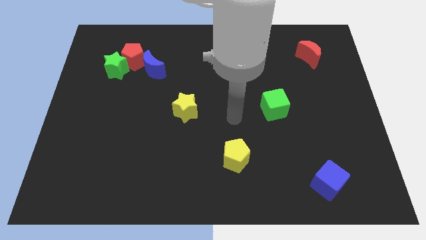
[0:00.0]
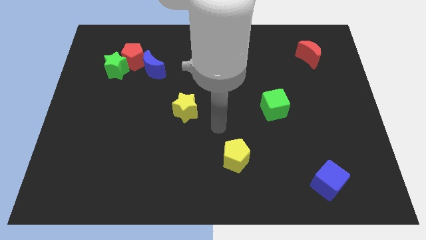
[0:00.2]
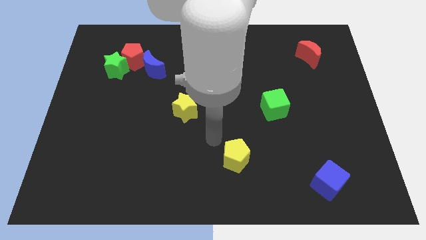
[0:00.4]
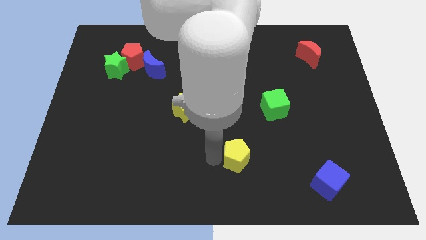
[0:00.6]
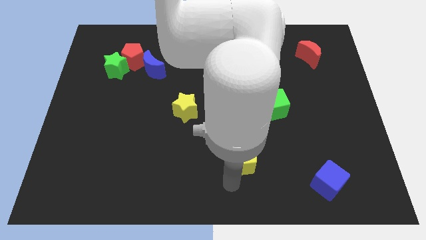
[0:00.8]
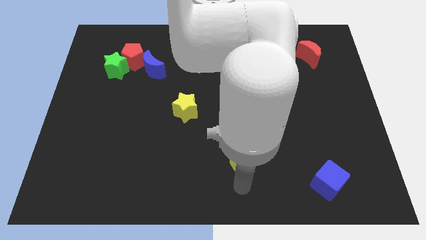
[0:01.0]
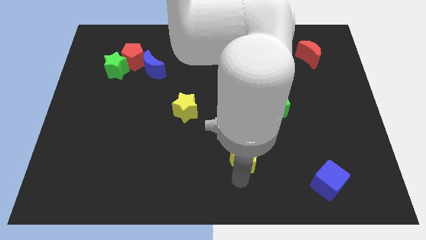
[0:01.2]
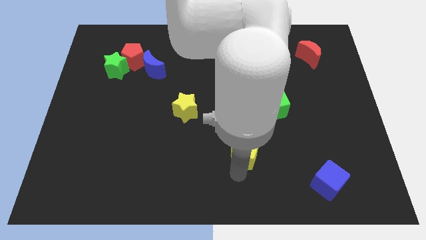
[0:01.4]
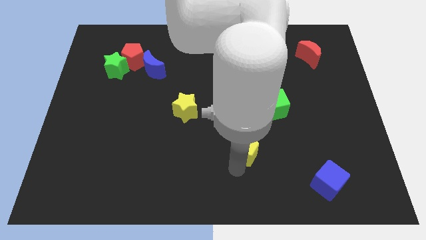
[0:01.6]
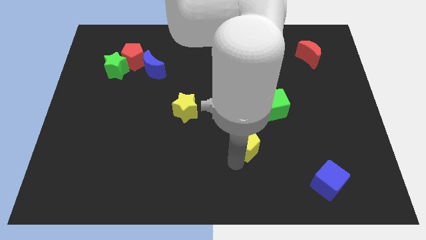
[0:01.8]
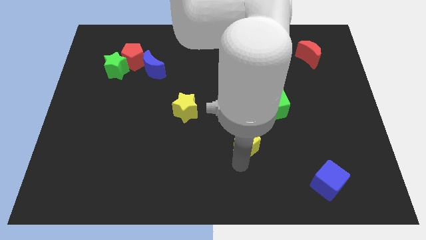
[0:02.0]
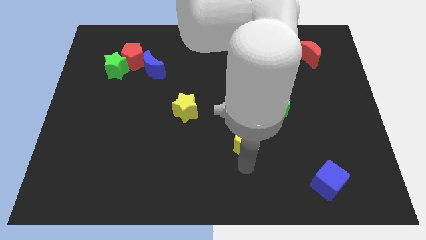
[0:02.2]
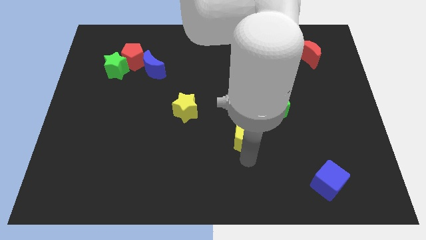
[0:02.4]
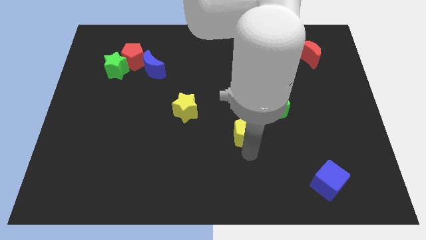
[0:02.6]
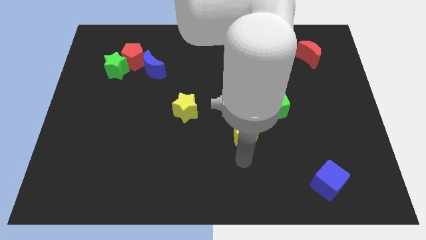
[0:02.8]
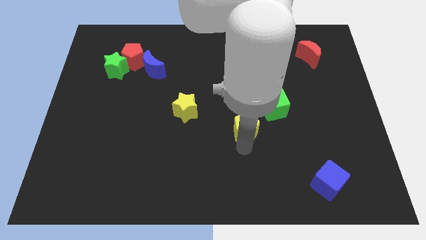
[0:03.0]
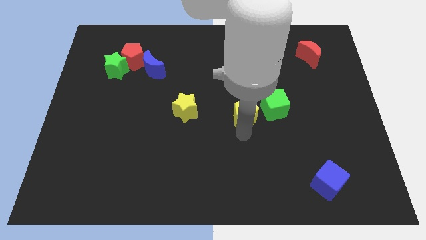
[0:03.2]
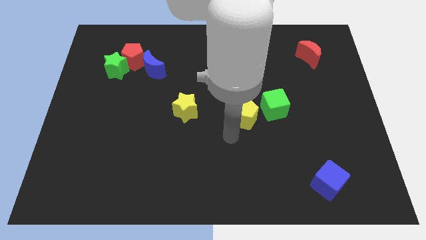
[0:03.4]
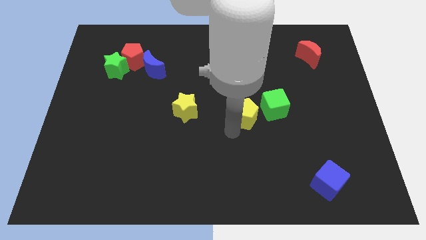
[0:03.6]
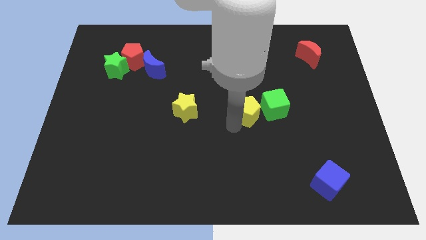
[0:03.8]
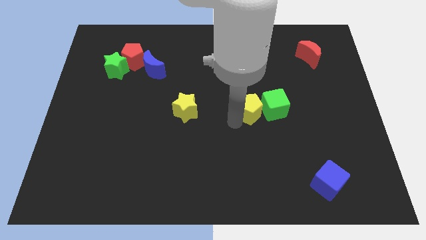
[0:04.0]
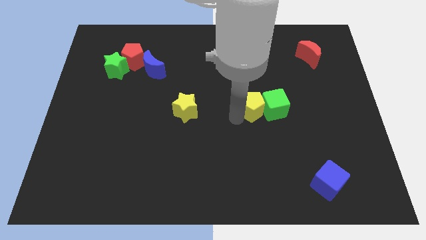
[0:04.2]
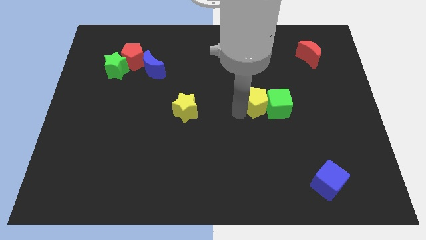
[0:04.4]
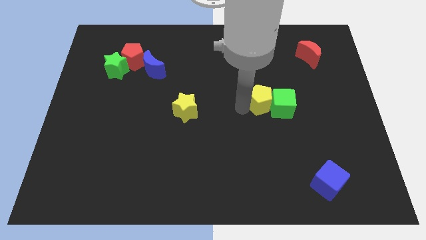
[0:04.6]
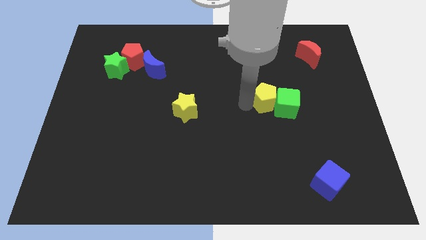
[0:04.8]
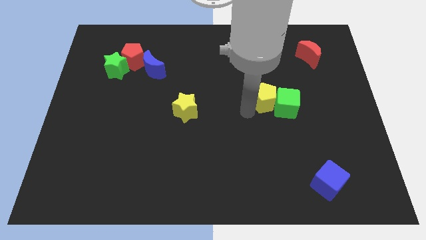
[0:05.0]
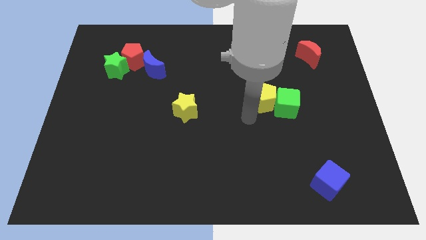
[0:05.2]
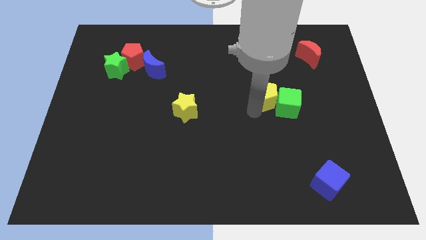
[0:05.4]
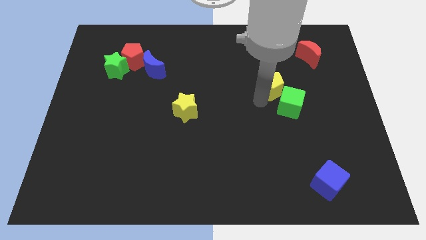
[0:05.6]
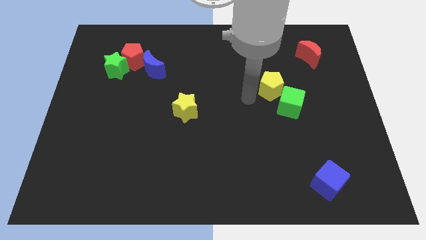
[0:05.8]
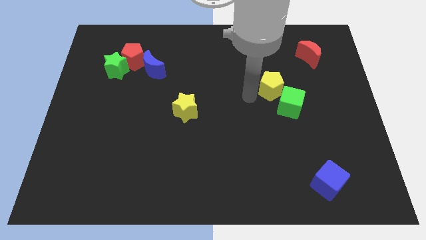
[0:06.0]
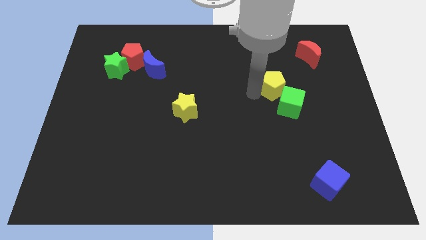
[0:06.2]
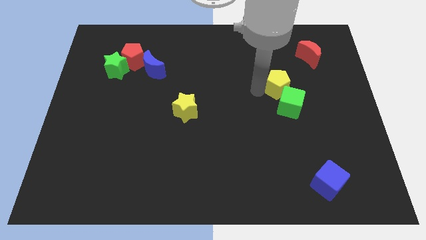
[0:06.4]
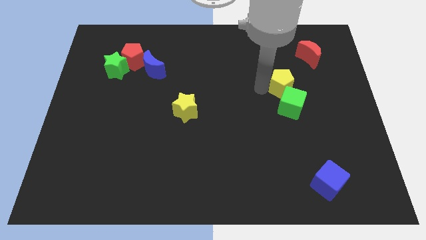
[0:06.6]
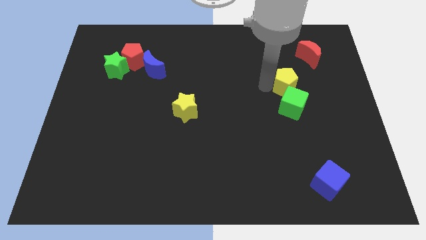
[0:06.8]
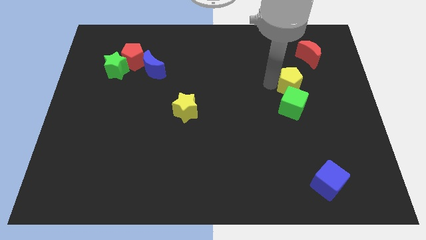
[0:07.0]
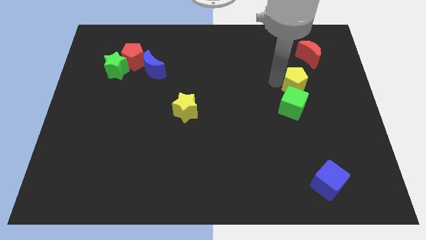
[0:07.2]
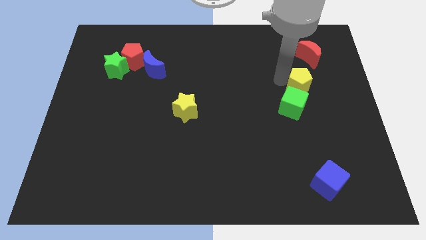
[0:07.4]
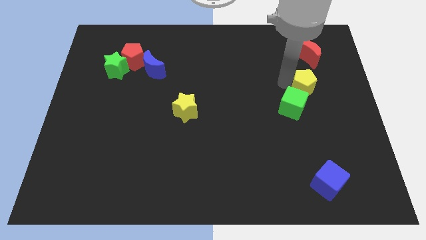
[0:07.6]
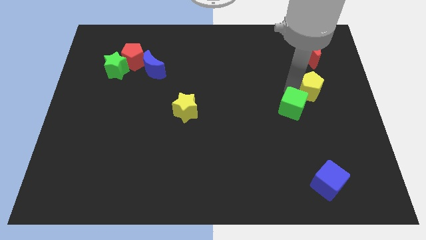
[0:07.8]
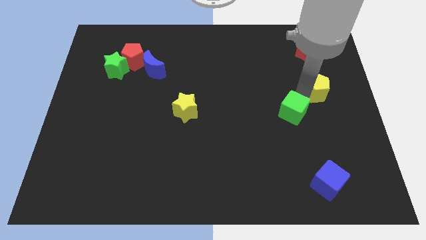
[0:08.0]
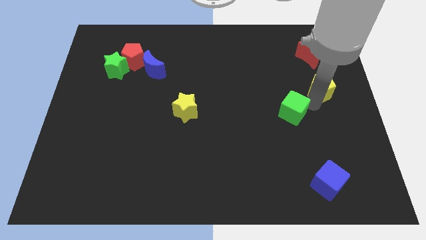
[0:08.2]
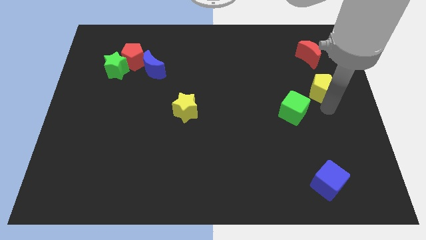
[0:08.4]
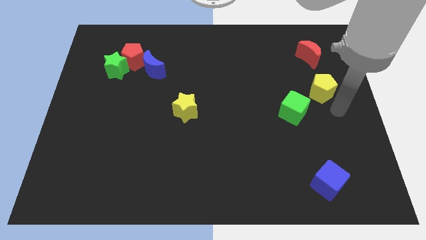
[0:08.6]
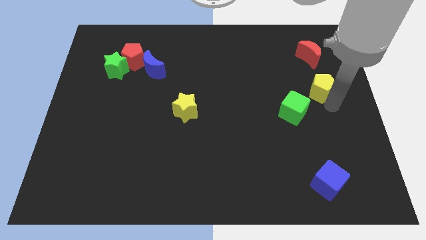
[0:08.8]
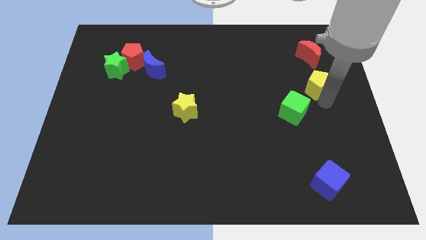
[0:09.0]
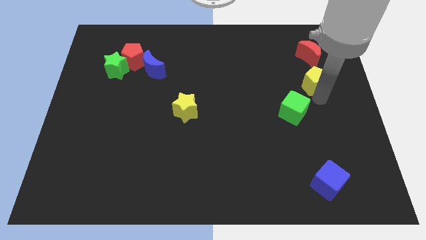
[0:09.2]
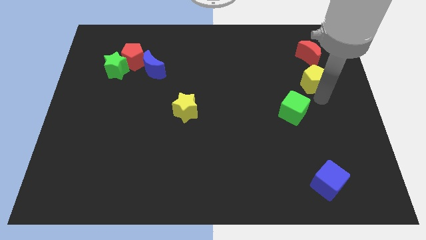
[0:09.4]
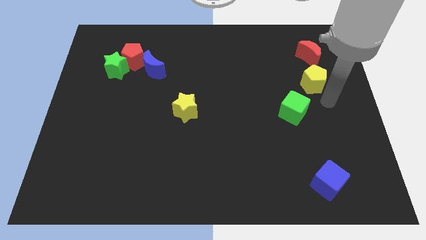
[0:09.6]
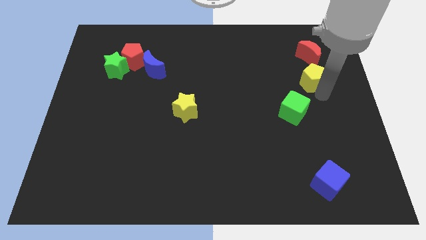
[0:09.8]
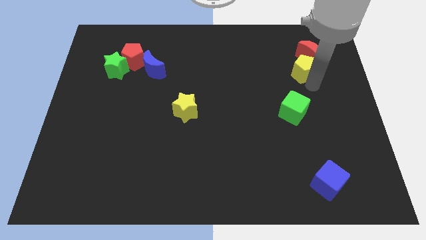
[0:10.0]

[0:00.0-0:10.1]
move the yellow pentagon towards the red moon

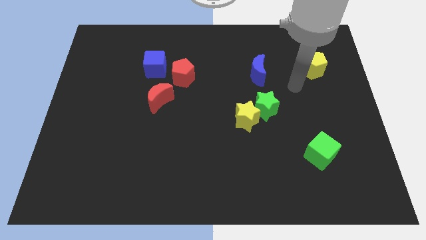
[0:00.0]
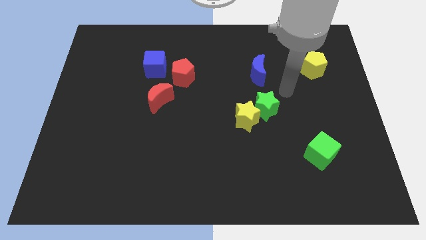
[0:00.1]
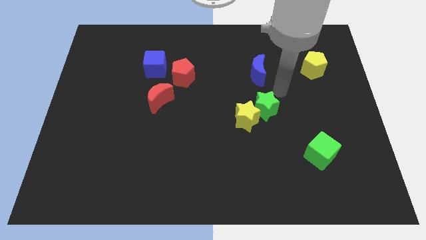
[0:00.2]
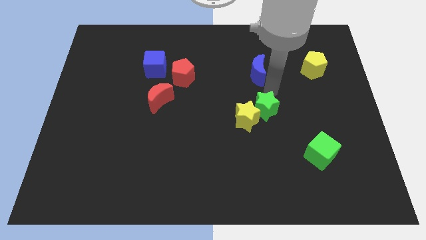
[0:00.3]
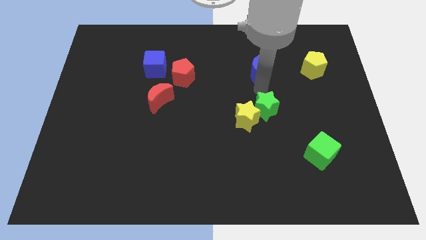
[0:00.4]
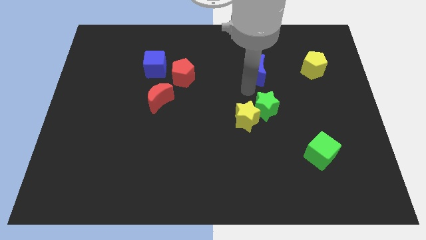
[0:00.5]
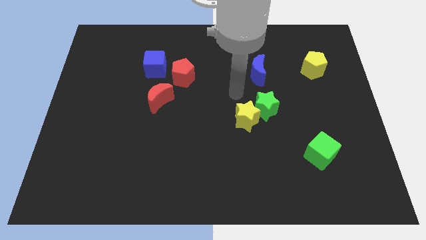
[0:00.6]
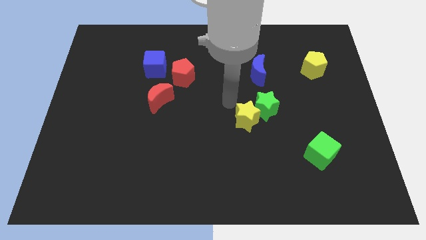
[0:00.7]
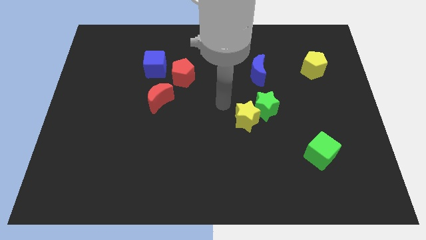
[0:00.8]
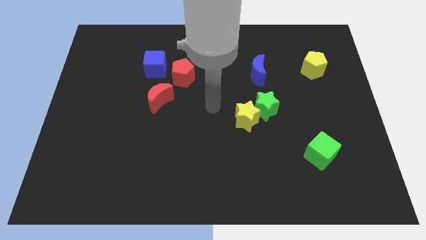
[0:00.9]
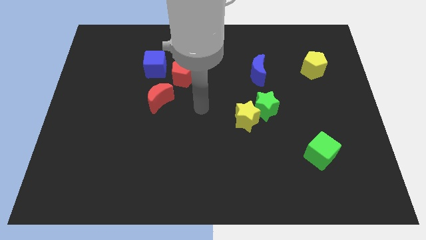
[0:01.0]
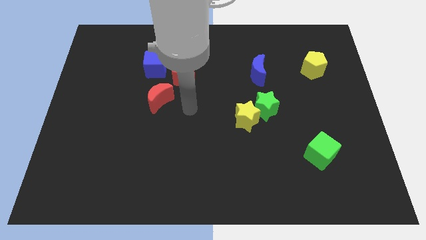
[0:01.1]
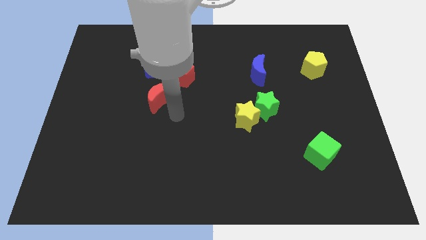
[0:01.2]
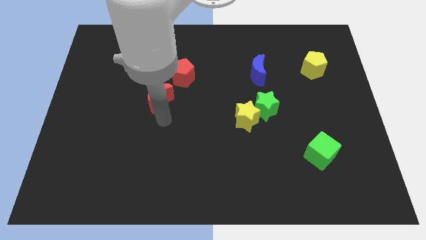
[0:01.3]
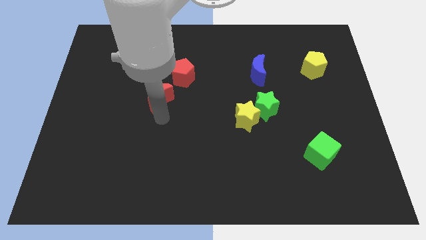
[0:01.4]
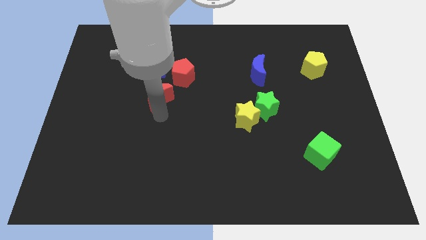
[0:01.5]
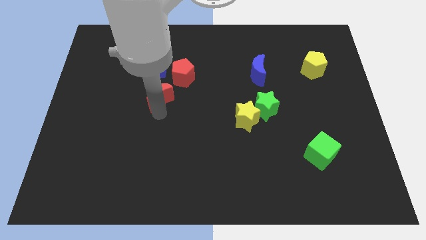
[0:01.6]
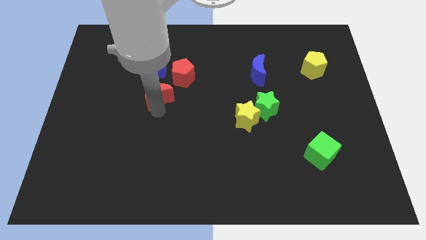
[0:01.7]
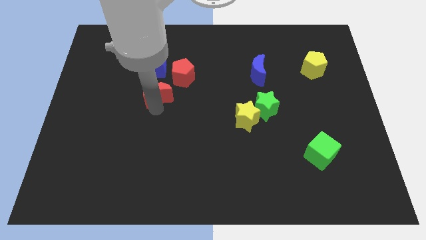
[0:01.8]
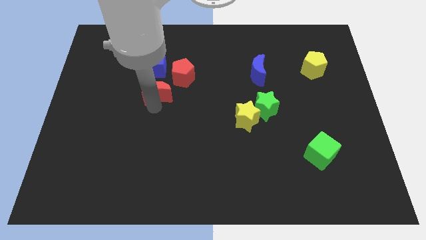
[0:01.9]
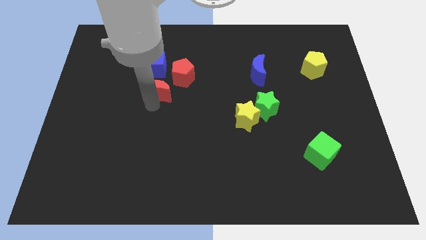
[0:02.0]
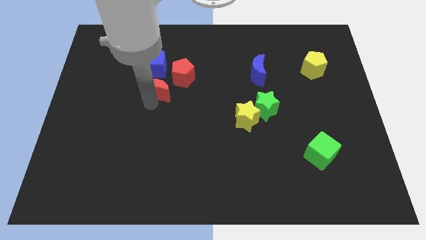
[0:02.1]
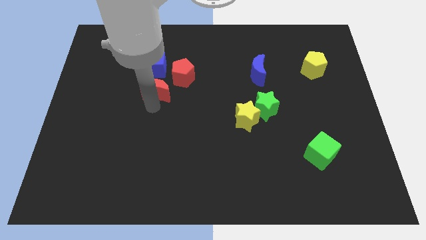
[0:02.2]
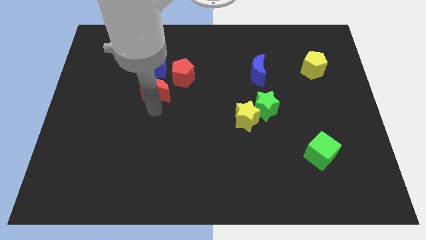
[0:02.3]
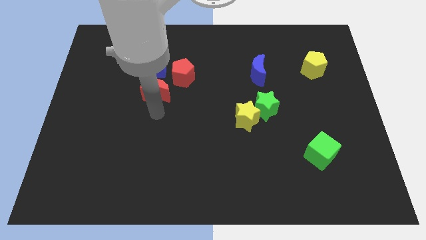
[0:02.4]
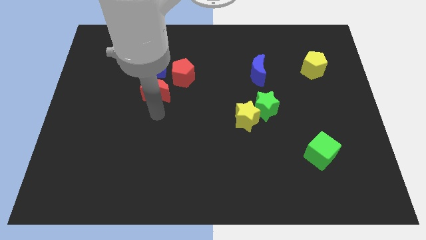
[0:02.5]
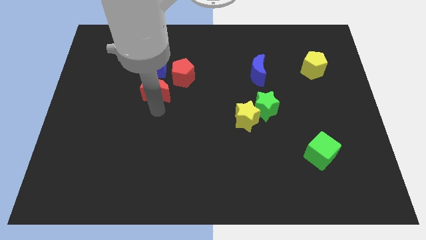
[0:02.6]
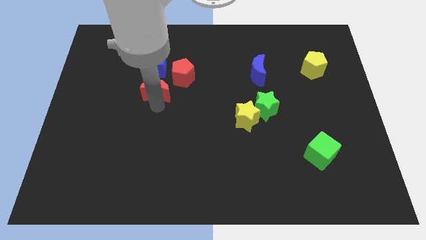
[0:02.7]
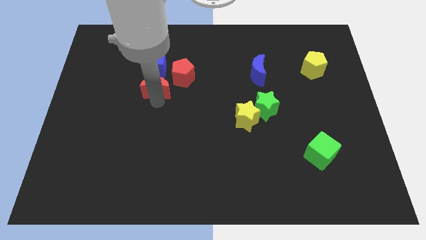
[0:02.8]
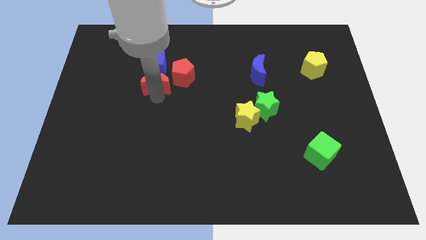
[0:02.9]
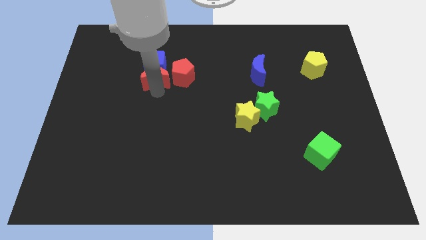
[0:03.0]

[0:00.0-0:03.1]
move the red moon close to the blue cube
